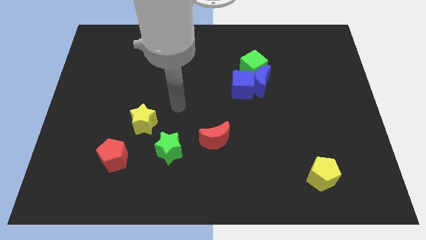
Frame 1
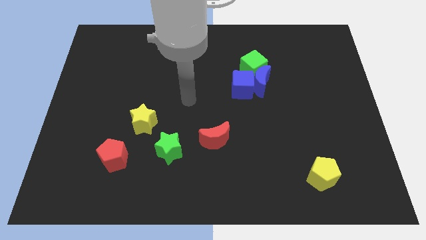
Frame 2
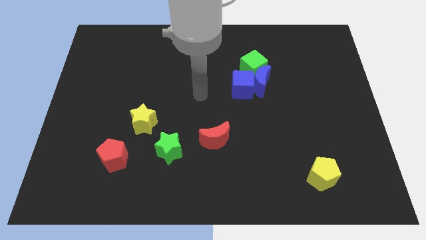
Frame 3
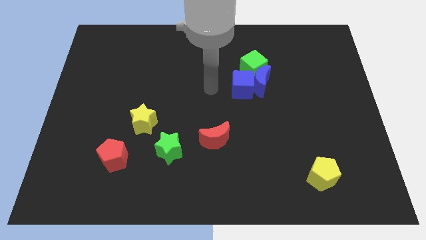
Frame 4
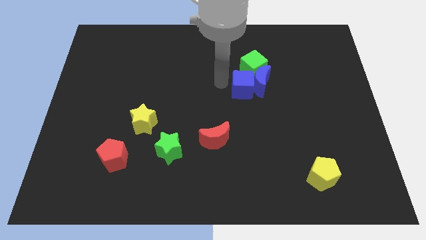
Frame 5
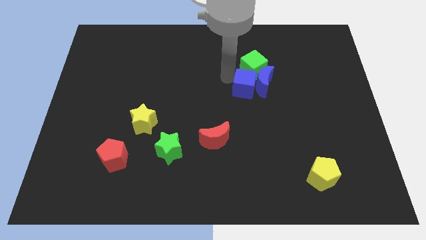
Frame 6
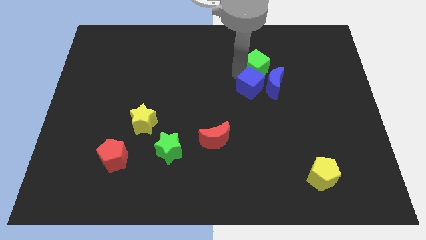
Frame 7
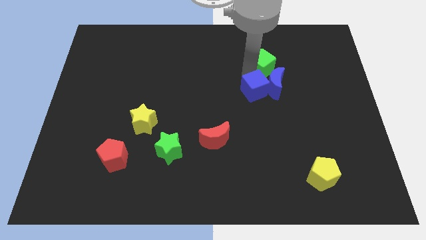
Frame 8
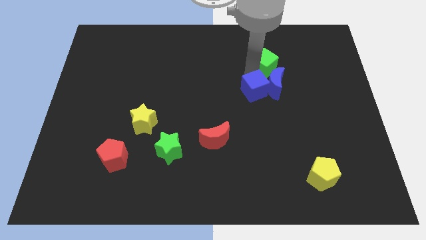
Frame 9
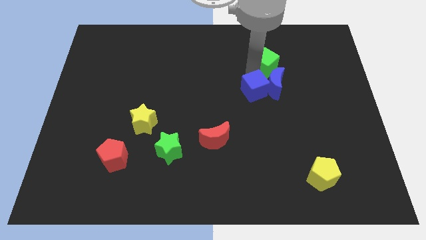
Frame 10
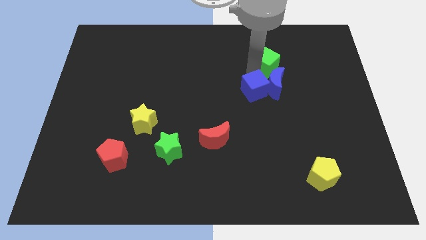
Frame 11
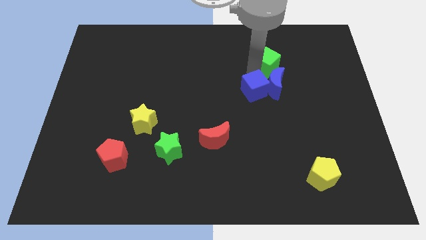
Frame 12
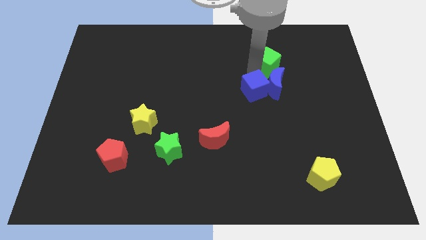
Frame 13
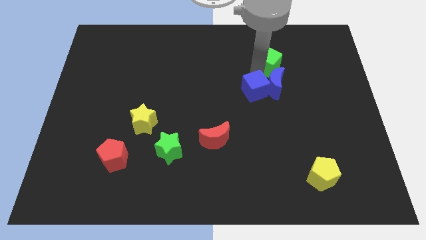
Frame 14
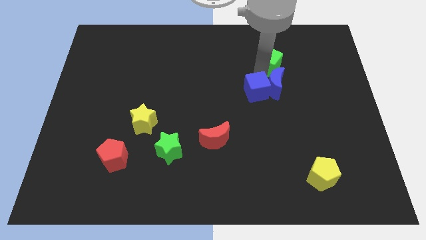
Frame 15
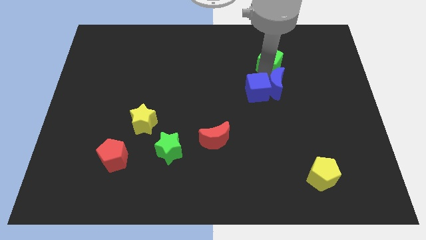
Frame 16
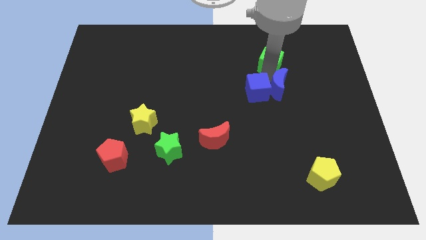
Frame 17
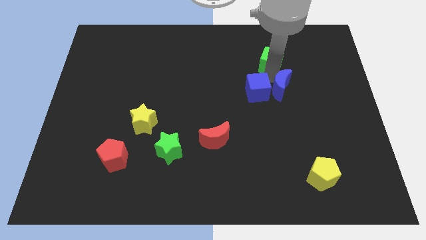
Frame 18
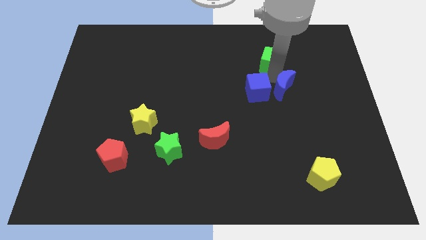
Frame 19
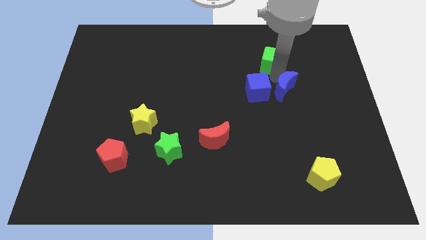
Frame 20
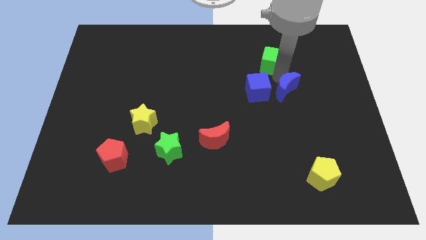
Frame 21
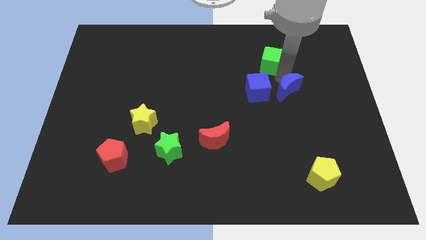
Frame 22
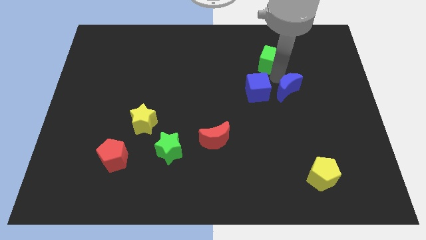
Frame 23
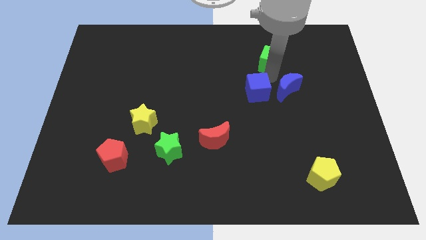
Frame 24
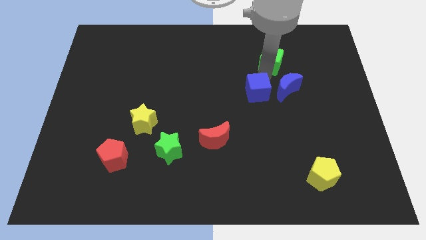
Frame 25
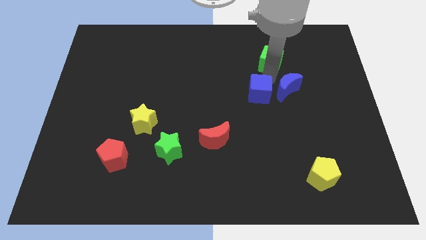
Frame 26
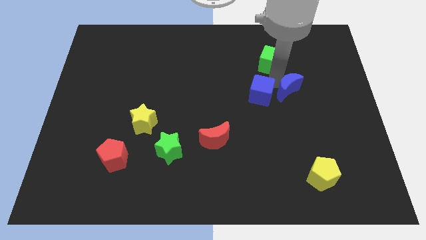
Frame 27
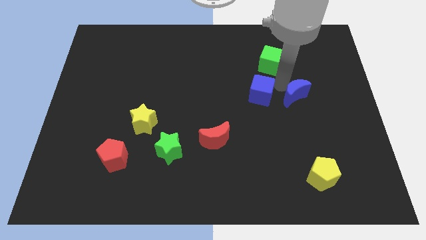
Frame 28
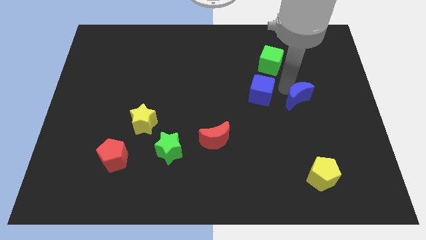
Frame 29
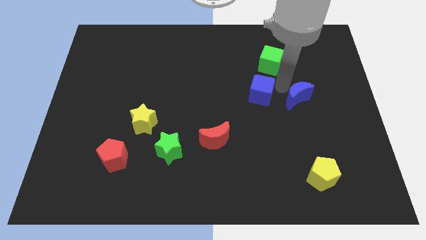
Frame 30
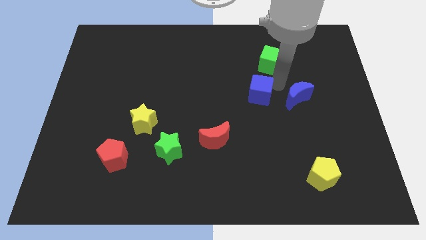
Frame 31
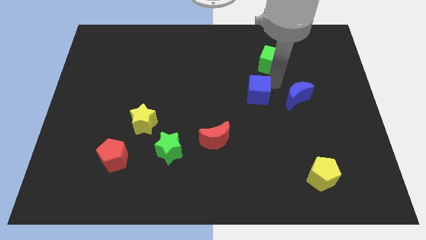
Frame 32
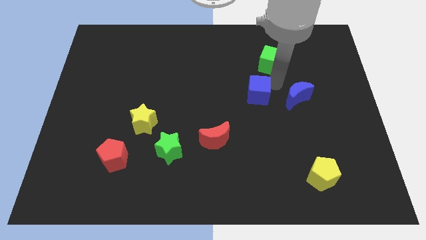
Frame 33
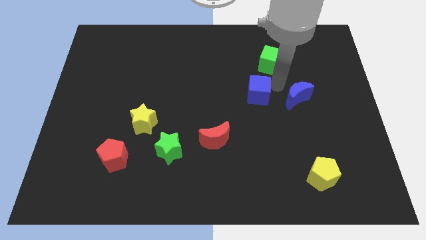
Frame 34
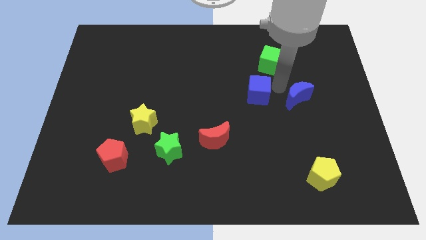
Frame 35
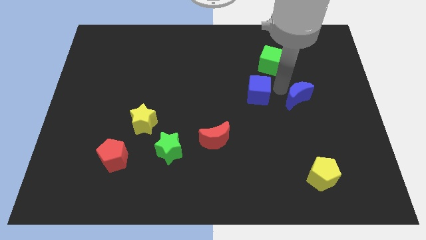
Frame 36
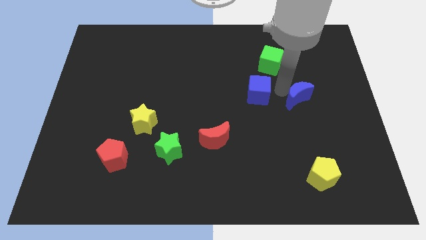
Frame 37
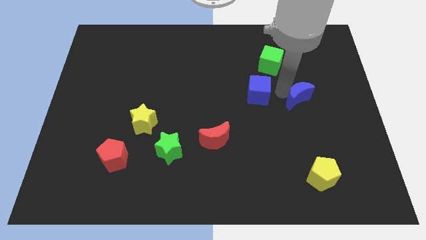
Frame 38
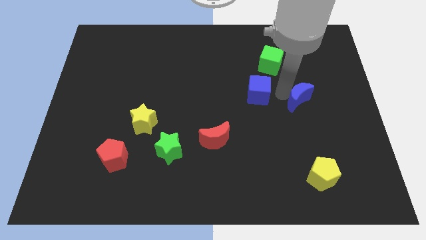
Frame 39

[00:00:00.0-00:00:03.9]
pull the blue moon apart from the blue cube and green cube

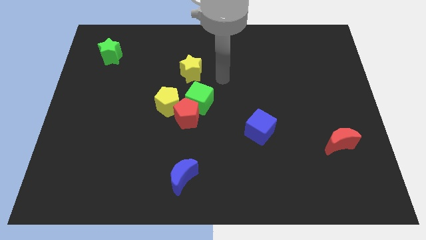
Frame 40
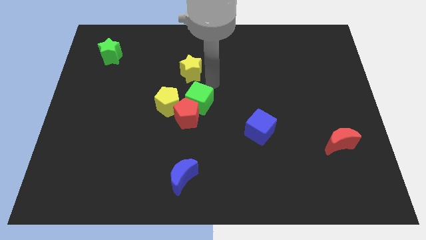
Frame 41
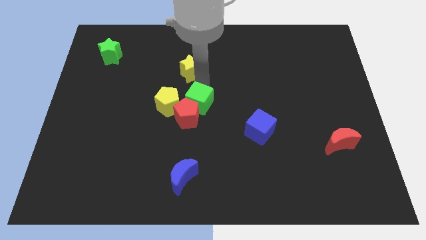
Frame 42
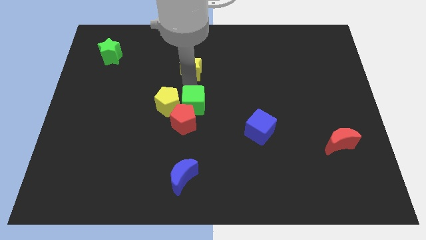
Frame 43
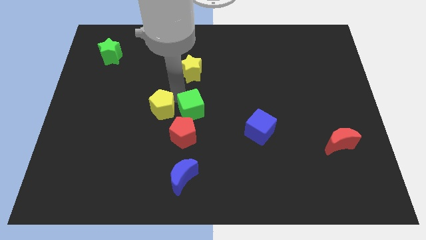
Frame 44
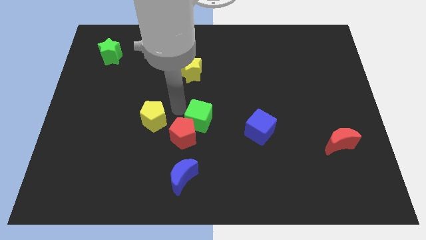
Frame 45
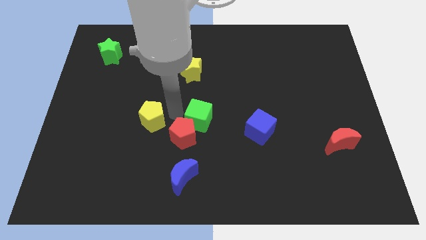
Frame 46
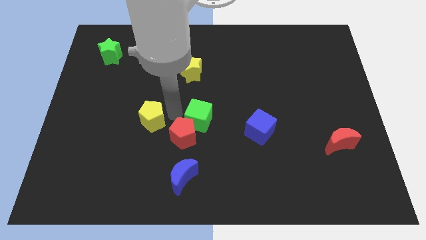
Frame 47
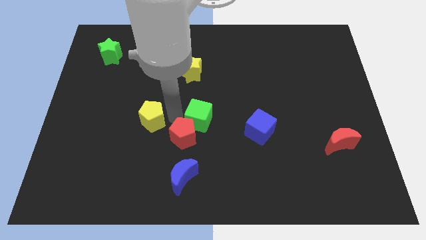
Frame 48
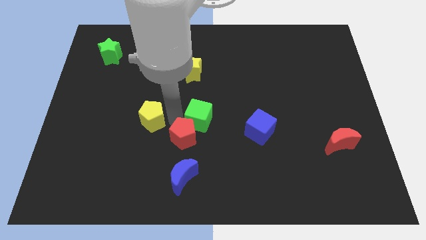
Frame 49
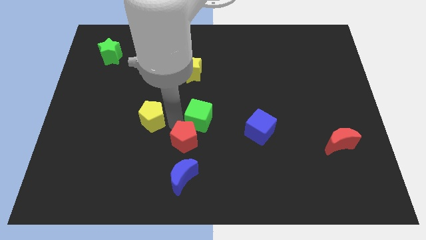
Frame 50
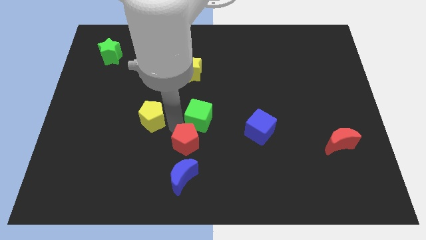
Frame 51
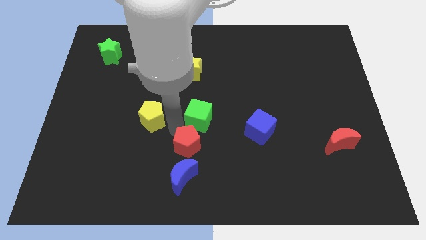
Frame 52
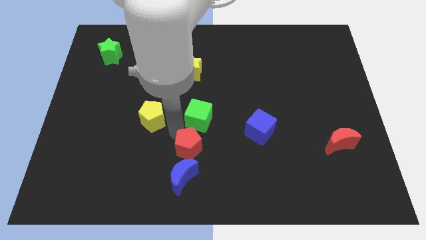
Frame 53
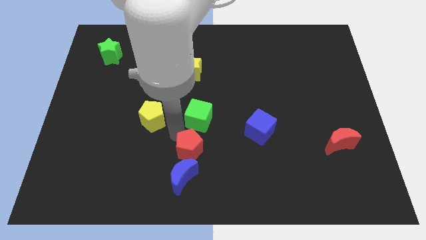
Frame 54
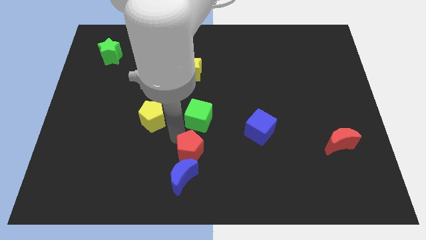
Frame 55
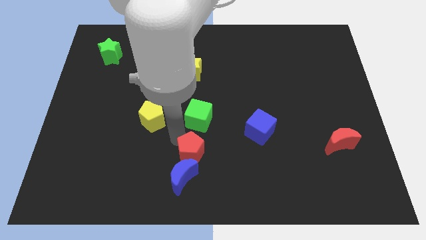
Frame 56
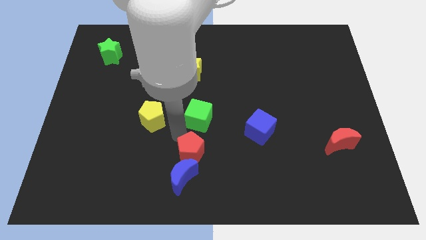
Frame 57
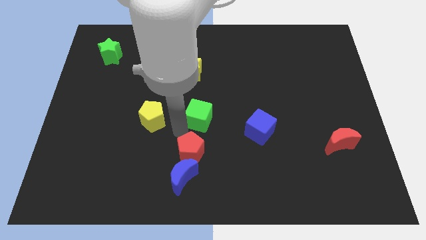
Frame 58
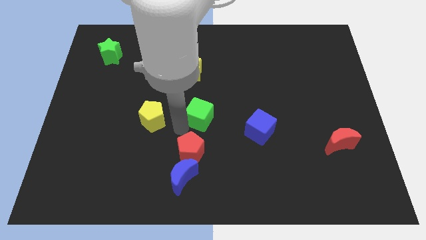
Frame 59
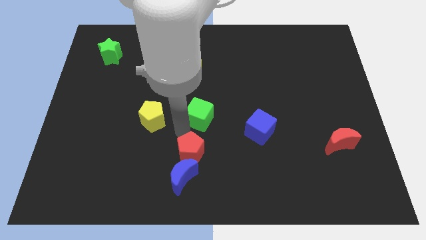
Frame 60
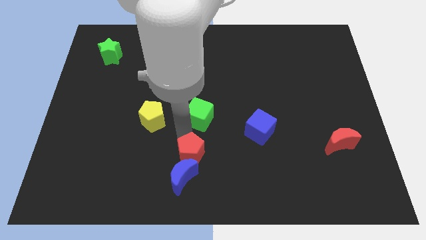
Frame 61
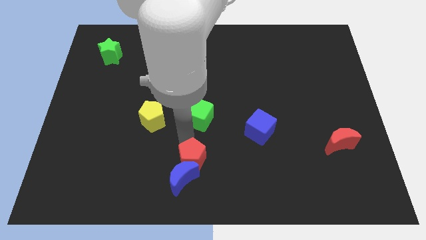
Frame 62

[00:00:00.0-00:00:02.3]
separate the red pentagon from the green cube and yellow pentagon

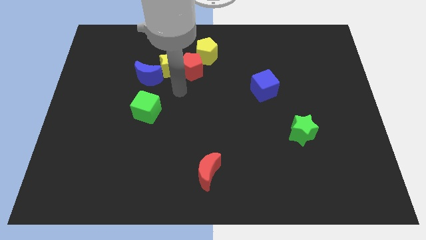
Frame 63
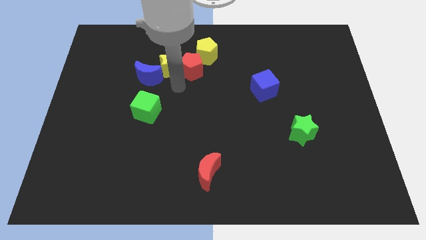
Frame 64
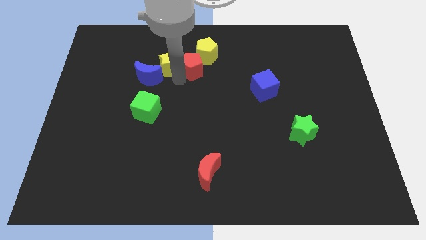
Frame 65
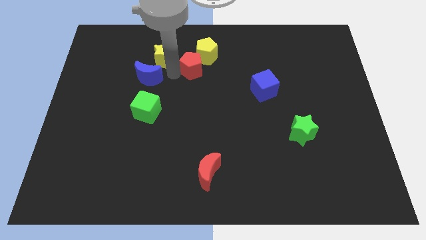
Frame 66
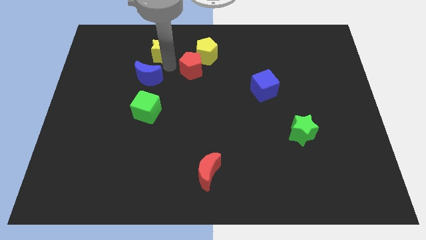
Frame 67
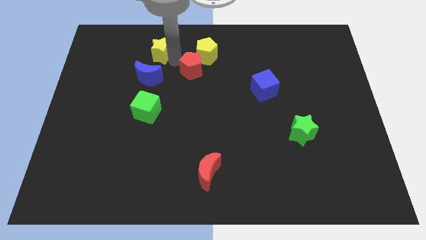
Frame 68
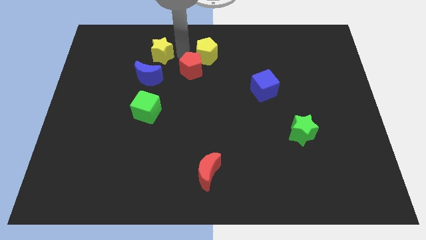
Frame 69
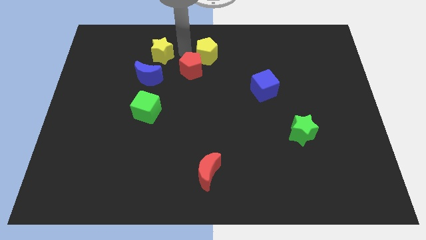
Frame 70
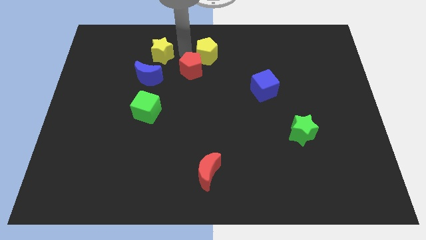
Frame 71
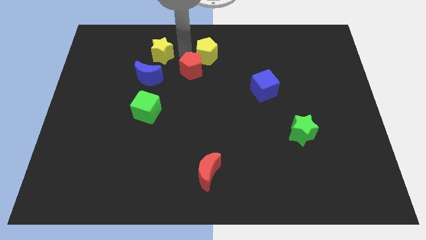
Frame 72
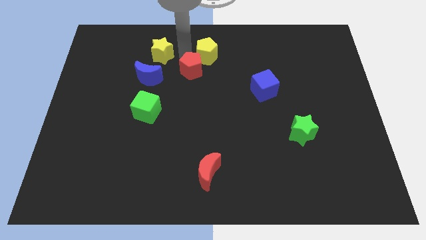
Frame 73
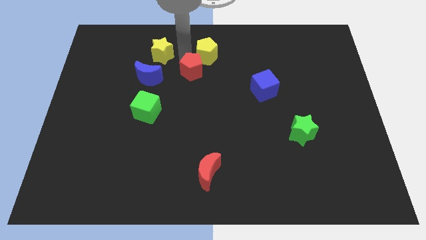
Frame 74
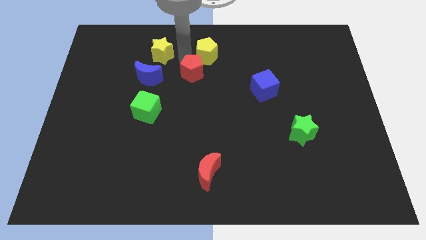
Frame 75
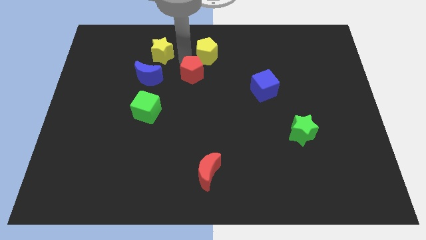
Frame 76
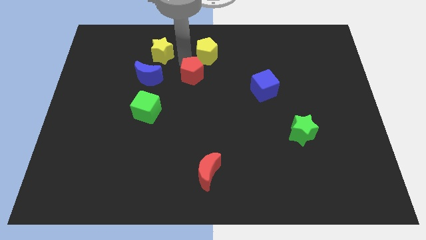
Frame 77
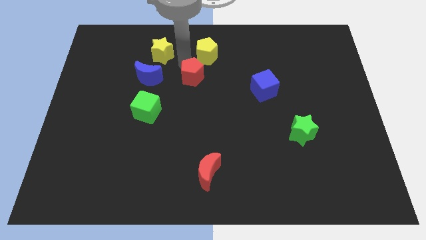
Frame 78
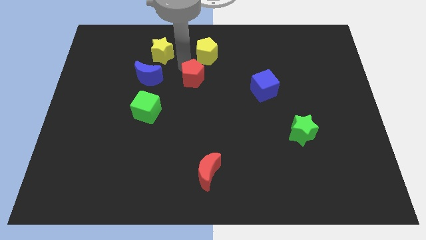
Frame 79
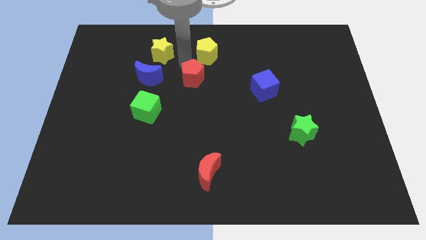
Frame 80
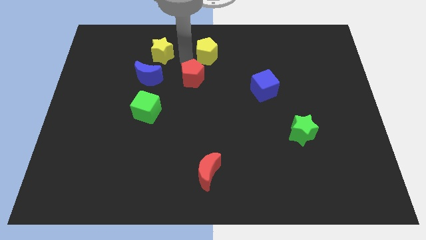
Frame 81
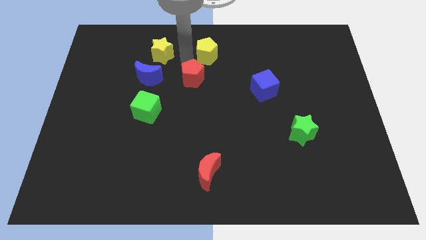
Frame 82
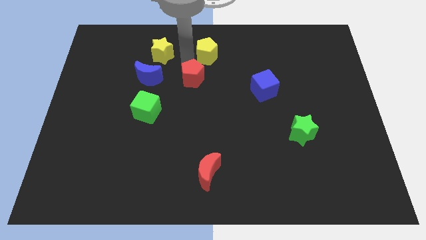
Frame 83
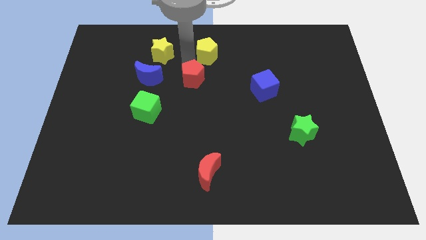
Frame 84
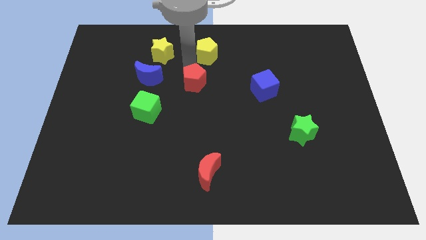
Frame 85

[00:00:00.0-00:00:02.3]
pull the red pentagon apart from the yellow star and yellow pentagon

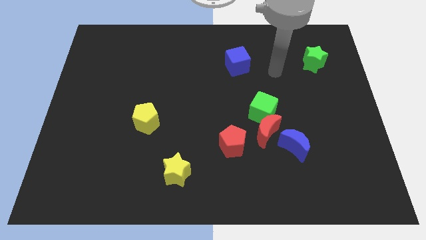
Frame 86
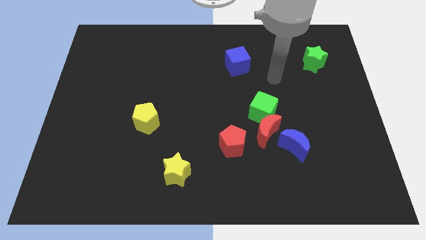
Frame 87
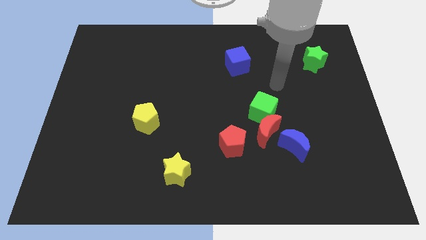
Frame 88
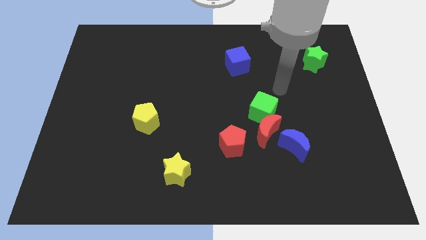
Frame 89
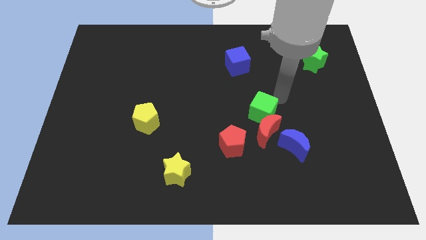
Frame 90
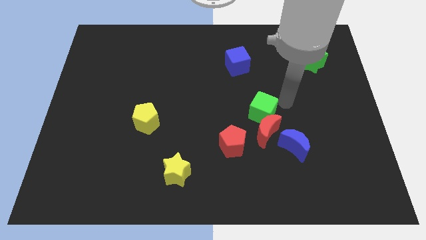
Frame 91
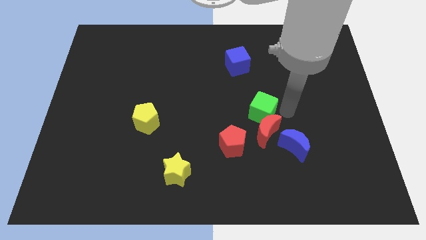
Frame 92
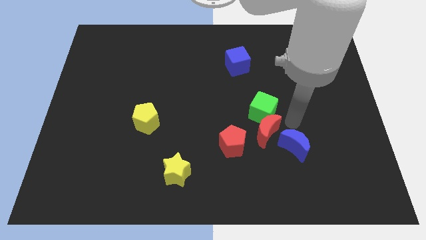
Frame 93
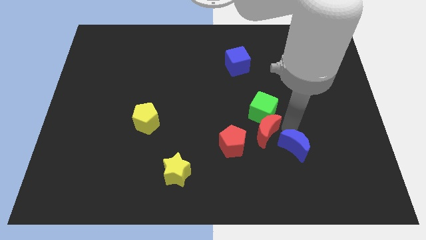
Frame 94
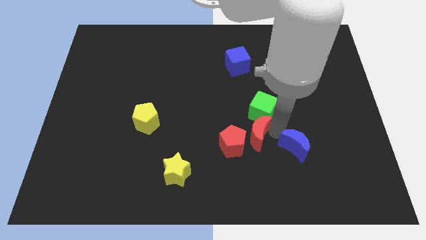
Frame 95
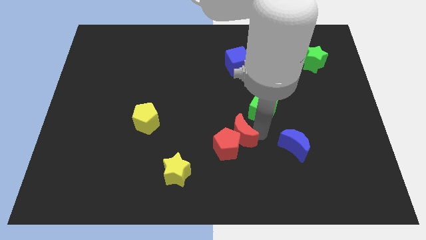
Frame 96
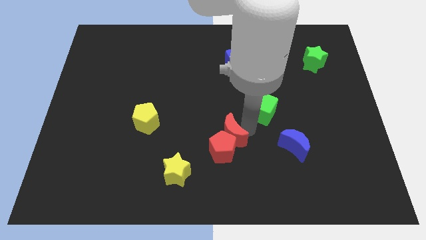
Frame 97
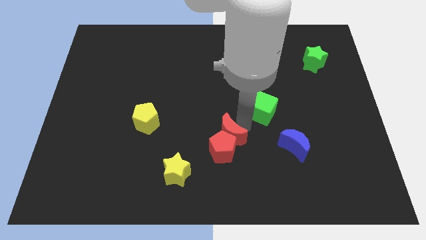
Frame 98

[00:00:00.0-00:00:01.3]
move the green cube away from the red moon
